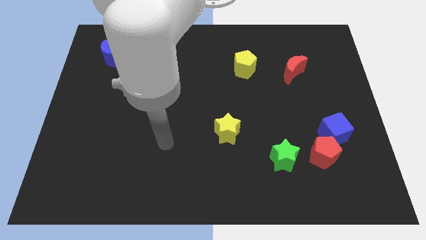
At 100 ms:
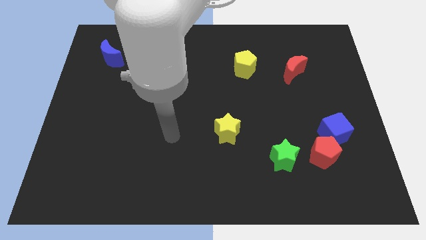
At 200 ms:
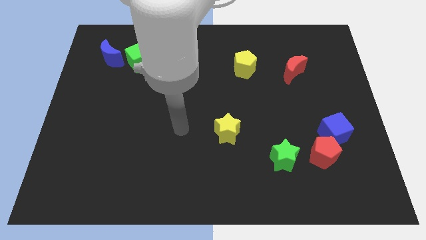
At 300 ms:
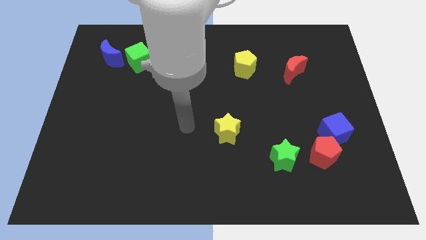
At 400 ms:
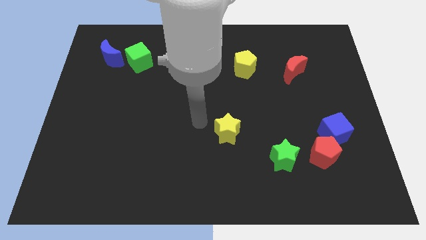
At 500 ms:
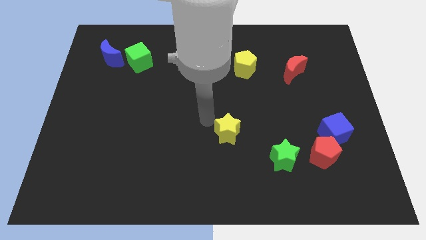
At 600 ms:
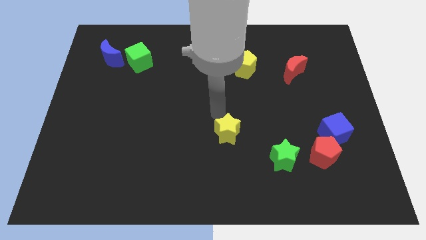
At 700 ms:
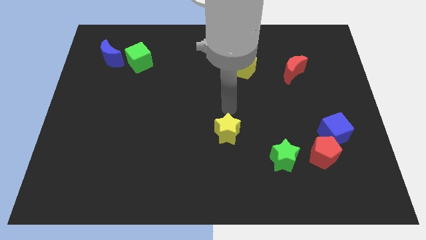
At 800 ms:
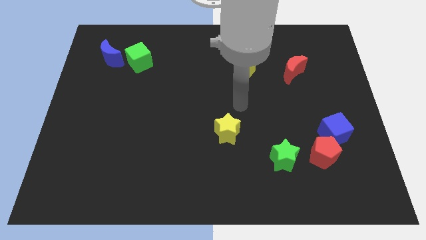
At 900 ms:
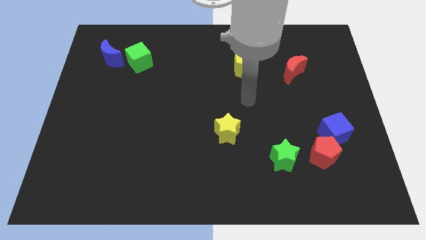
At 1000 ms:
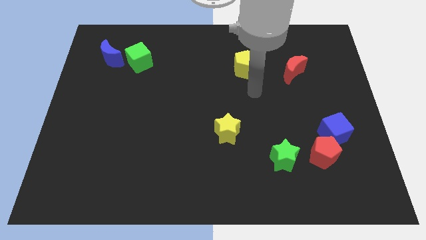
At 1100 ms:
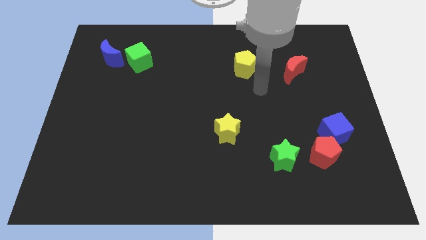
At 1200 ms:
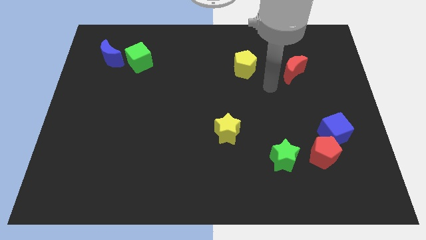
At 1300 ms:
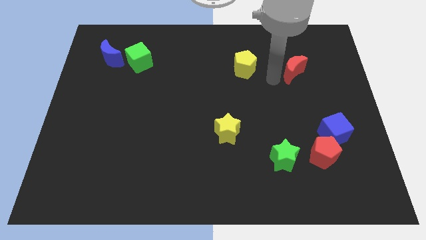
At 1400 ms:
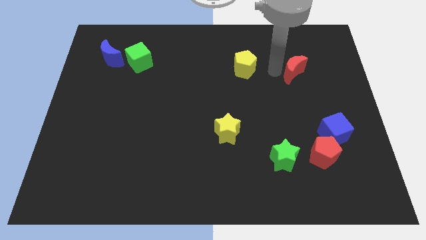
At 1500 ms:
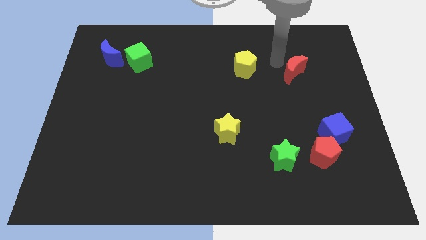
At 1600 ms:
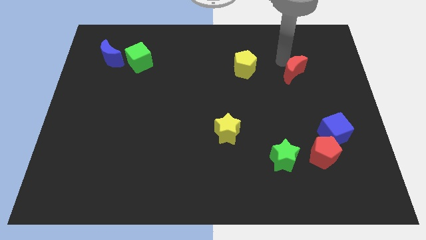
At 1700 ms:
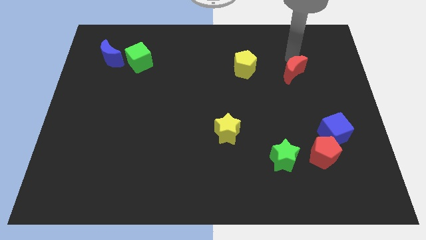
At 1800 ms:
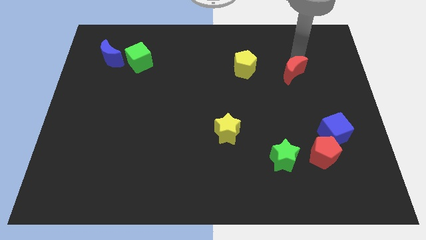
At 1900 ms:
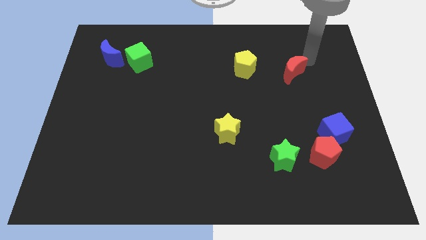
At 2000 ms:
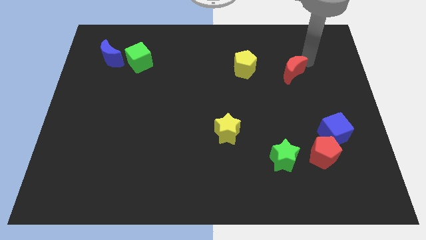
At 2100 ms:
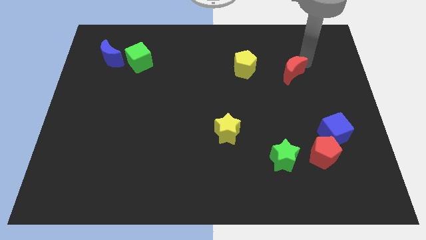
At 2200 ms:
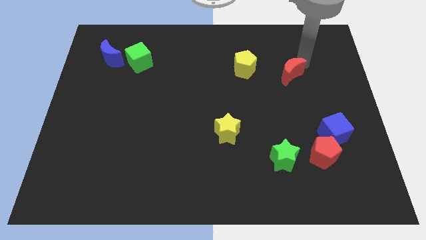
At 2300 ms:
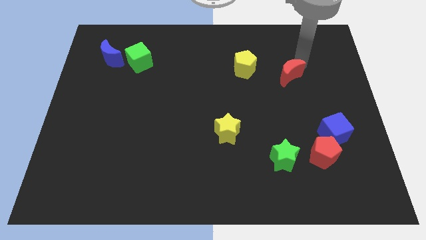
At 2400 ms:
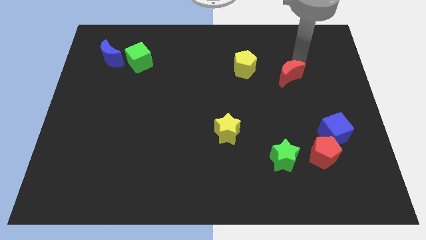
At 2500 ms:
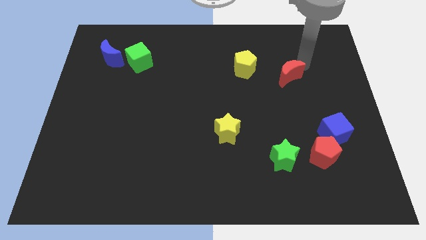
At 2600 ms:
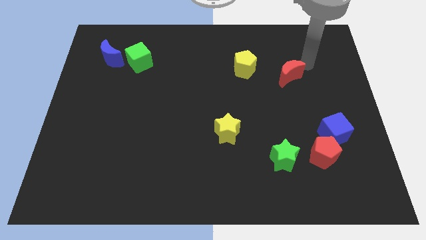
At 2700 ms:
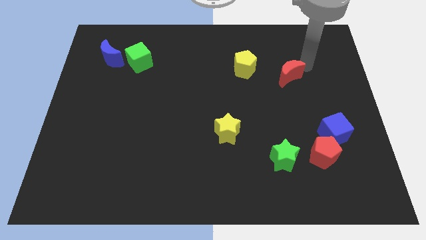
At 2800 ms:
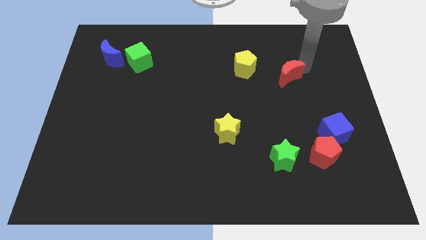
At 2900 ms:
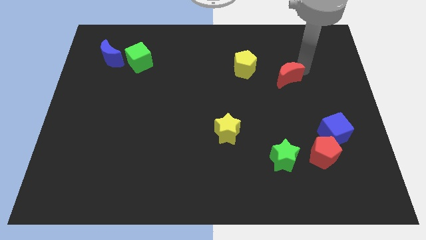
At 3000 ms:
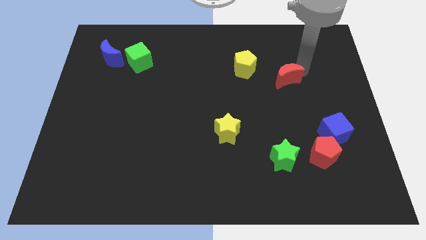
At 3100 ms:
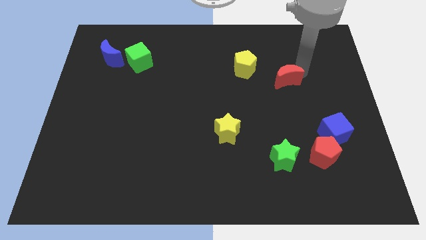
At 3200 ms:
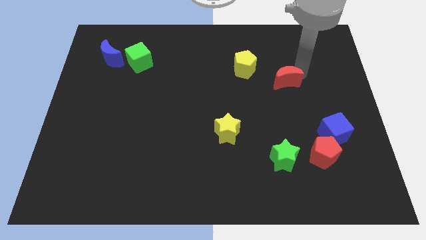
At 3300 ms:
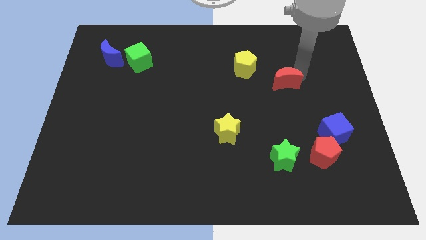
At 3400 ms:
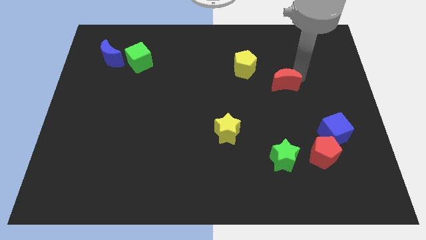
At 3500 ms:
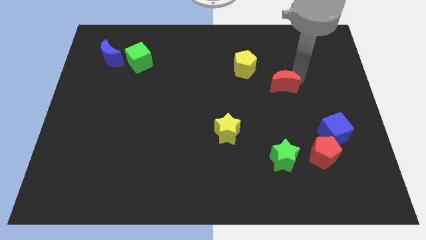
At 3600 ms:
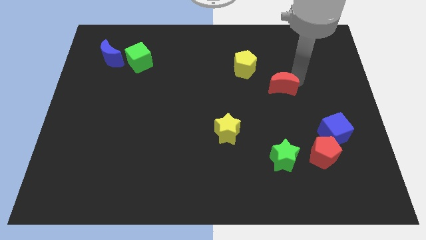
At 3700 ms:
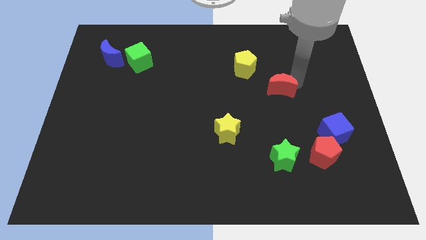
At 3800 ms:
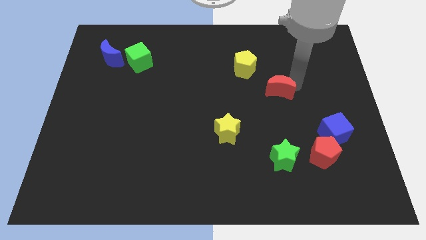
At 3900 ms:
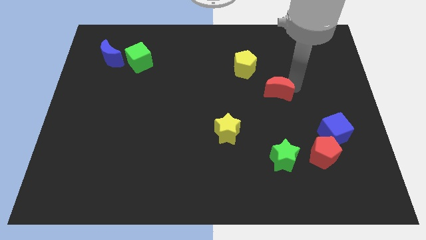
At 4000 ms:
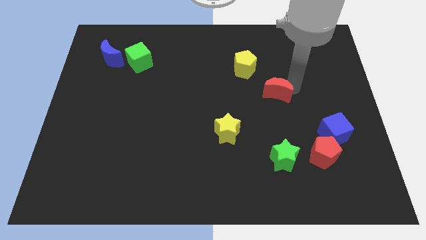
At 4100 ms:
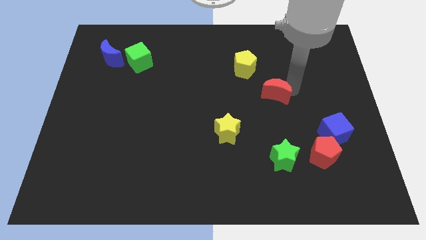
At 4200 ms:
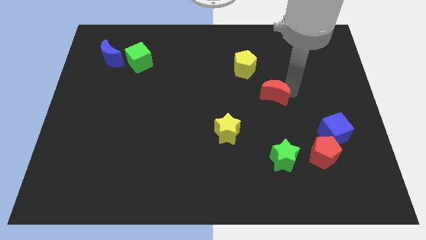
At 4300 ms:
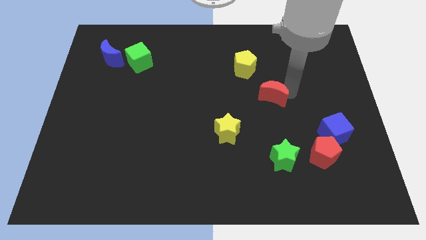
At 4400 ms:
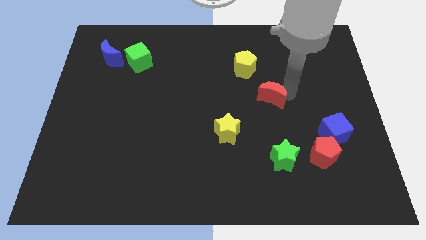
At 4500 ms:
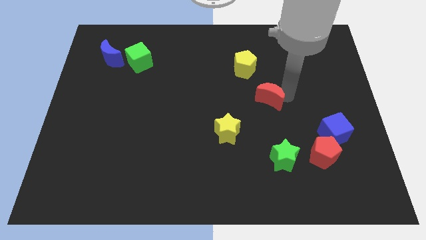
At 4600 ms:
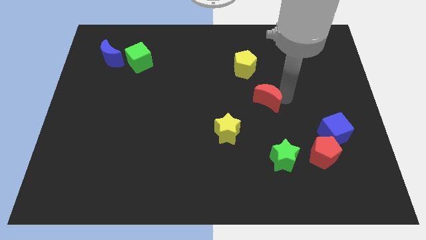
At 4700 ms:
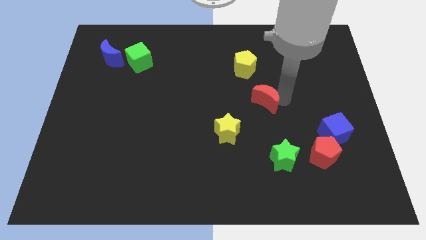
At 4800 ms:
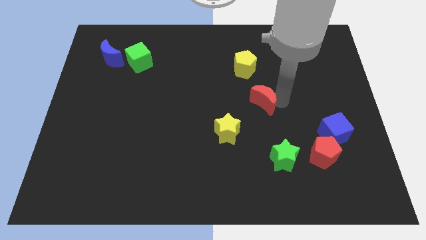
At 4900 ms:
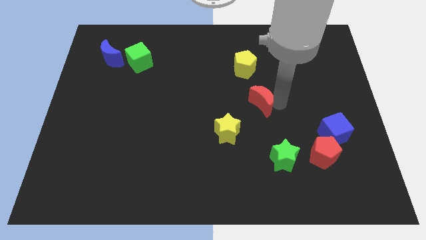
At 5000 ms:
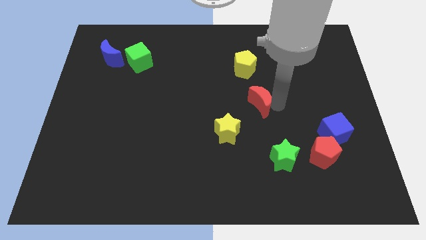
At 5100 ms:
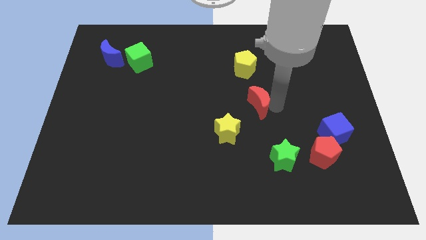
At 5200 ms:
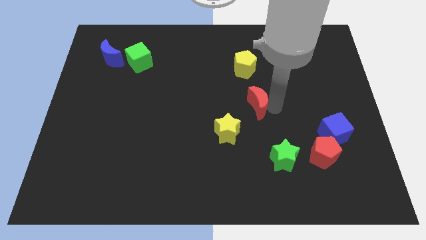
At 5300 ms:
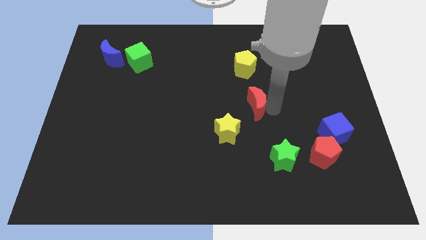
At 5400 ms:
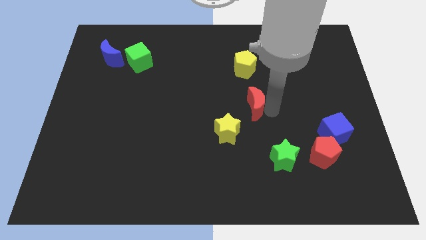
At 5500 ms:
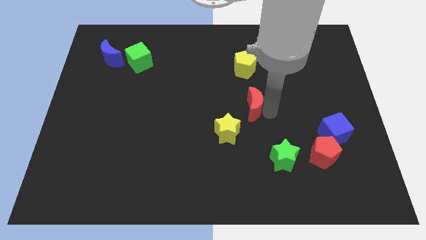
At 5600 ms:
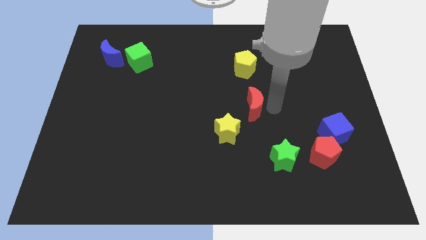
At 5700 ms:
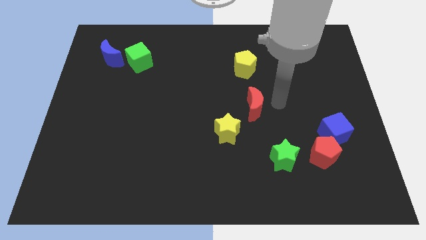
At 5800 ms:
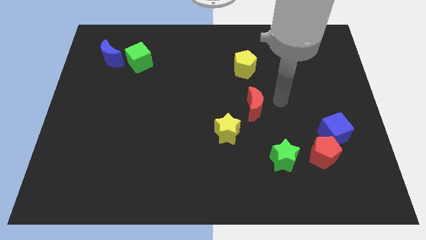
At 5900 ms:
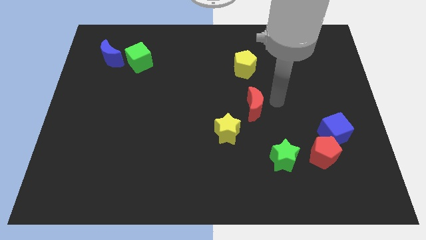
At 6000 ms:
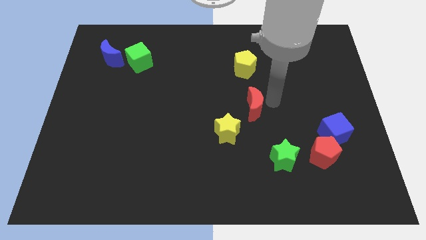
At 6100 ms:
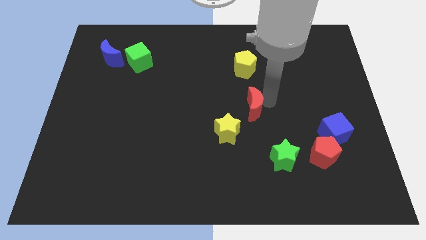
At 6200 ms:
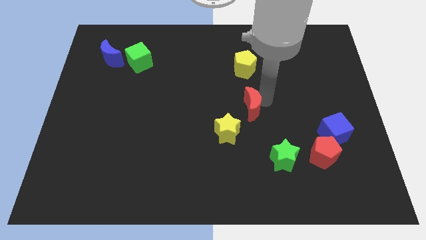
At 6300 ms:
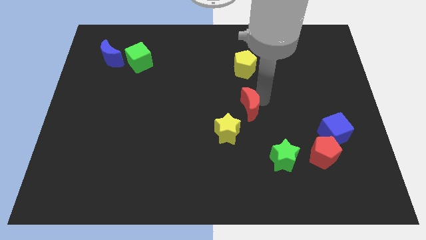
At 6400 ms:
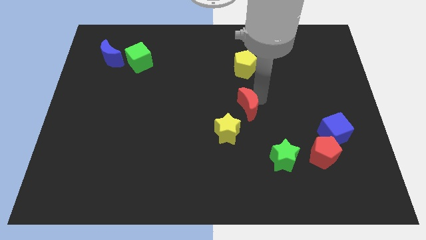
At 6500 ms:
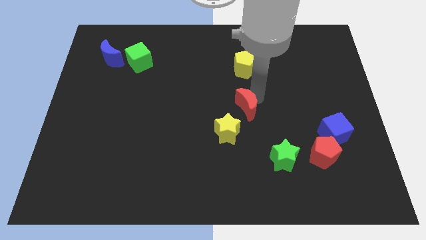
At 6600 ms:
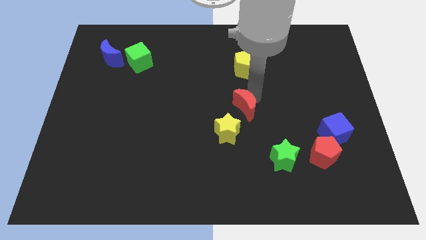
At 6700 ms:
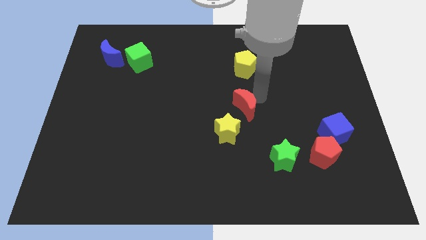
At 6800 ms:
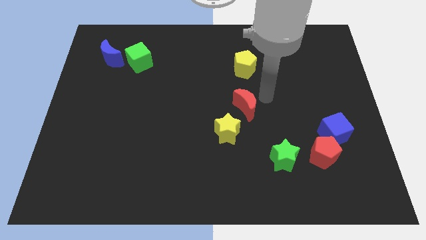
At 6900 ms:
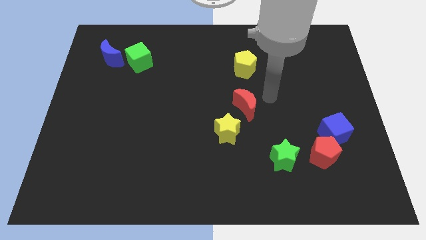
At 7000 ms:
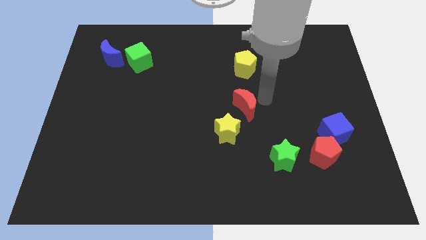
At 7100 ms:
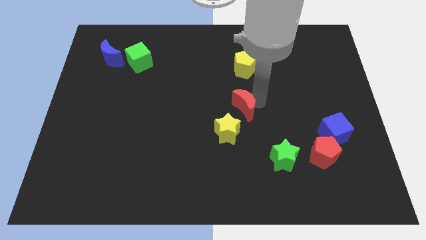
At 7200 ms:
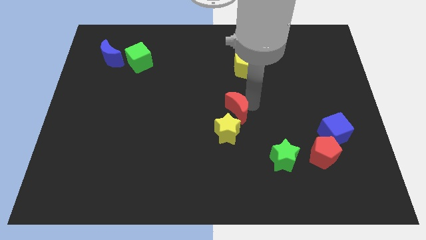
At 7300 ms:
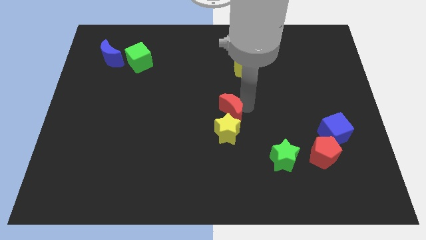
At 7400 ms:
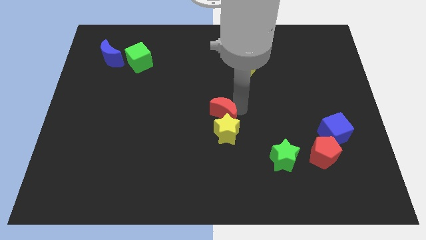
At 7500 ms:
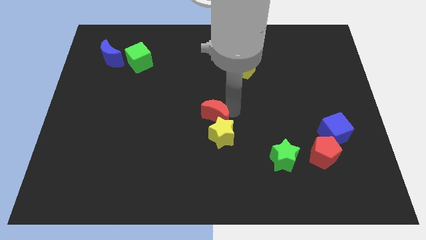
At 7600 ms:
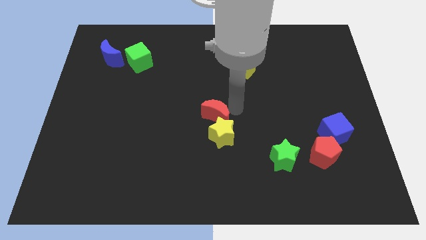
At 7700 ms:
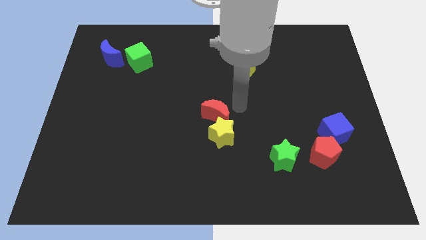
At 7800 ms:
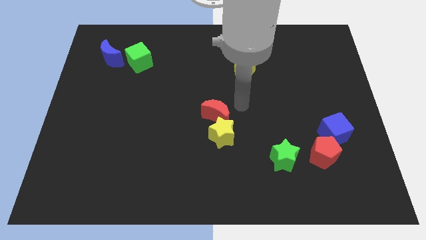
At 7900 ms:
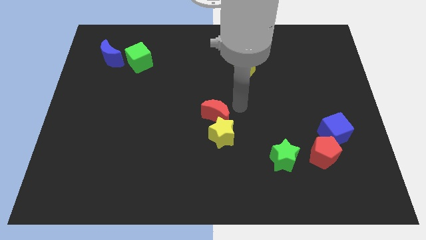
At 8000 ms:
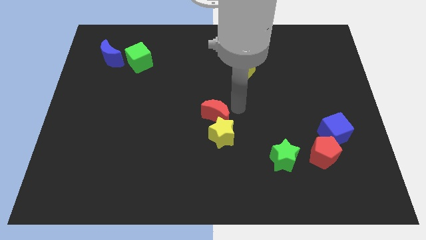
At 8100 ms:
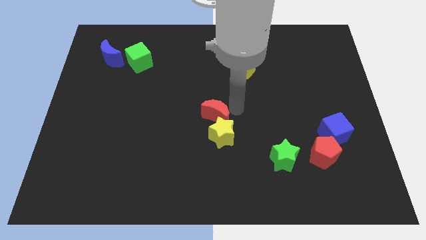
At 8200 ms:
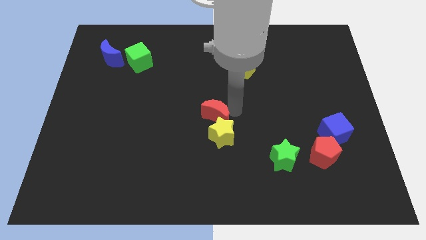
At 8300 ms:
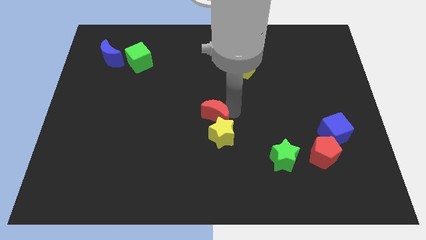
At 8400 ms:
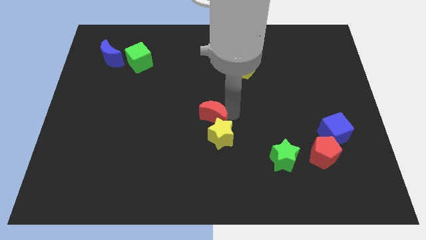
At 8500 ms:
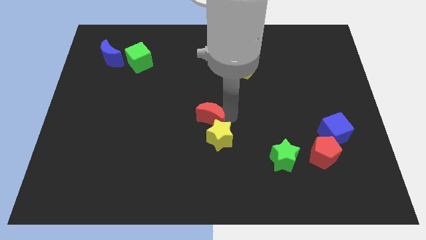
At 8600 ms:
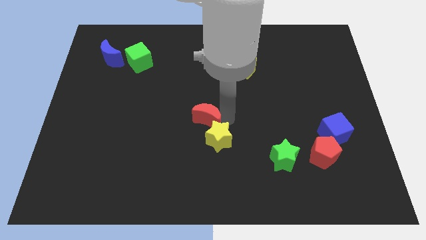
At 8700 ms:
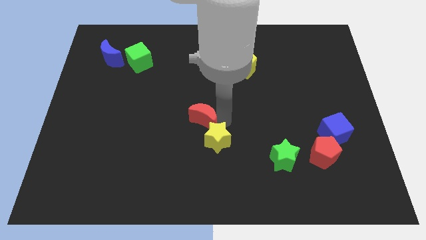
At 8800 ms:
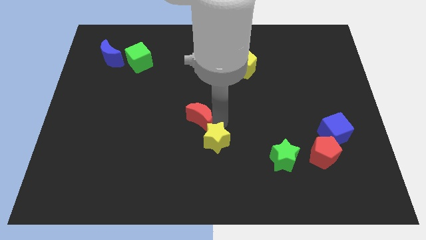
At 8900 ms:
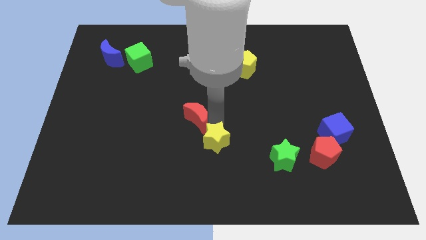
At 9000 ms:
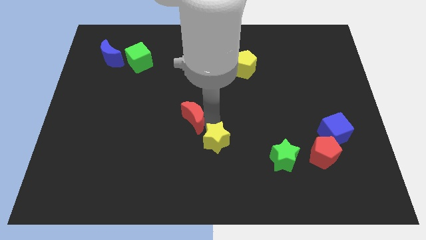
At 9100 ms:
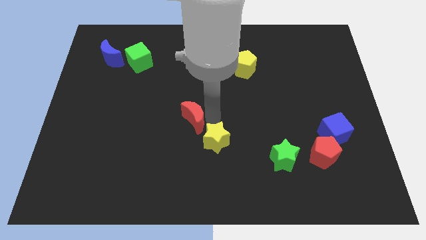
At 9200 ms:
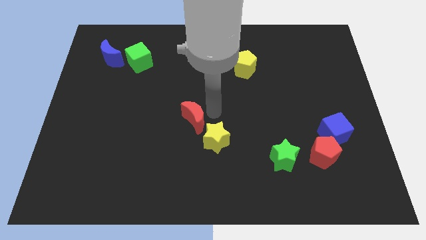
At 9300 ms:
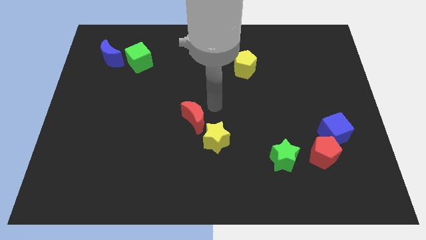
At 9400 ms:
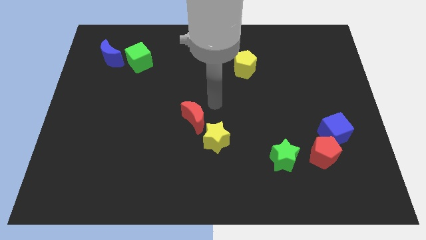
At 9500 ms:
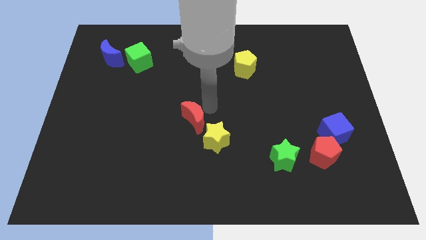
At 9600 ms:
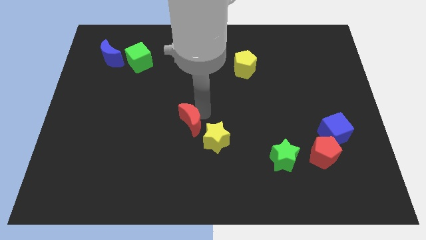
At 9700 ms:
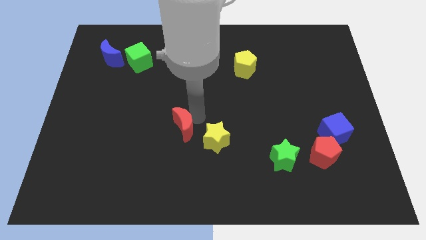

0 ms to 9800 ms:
slide the red moon to the left side of the yellow star
